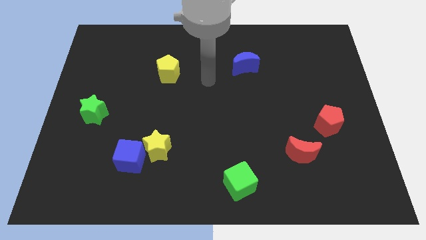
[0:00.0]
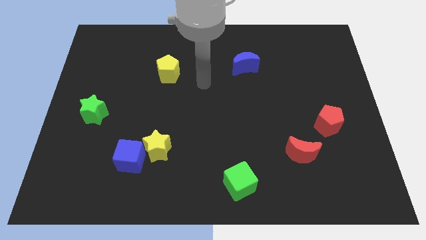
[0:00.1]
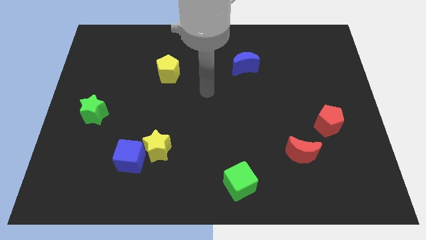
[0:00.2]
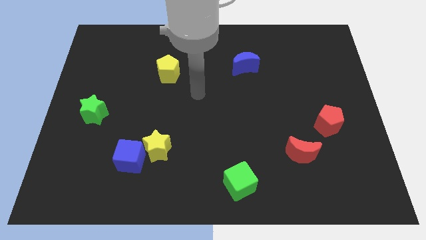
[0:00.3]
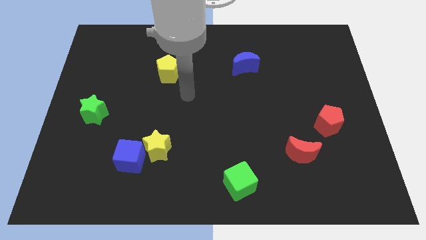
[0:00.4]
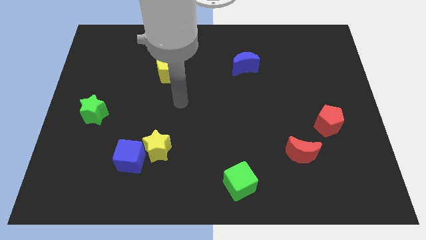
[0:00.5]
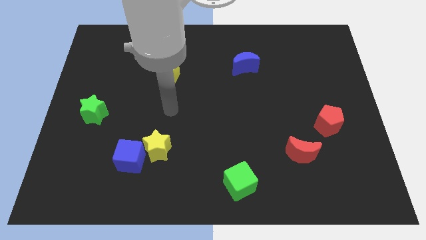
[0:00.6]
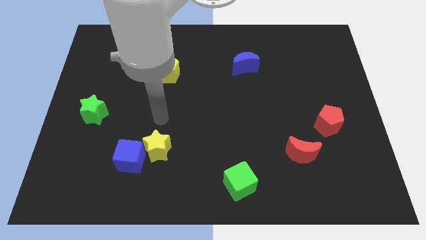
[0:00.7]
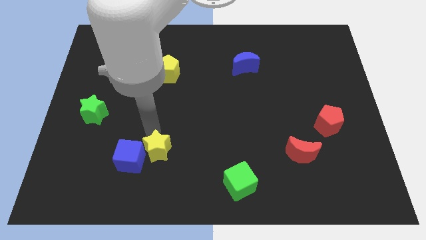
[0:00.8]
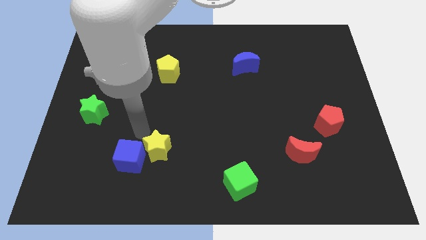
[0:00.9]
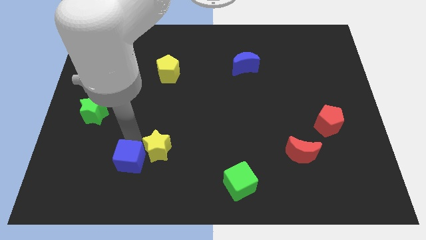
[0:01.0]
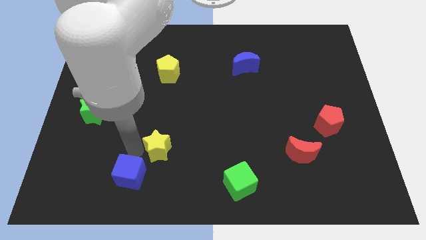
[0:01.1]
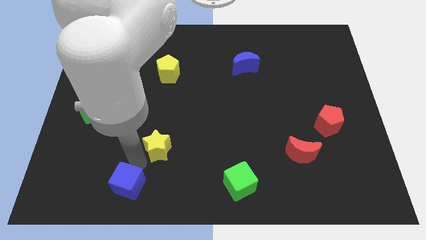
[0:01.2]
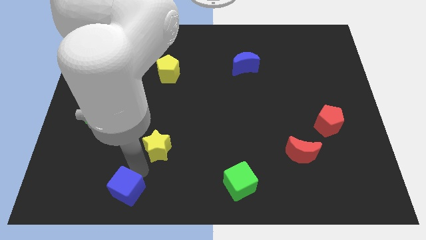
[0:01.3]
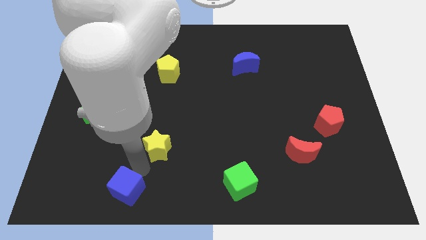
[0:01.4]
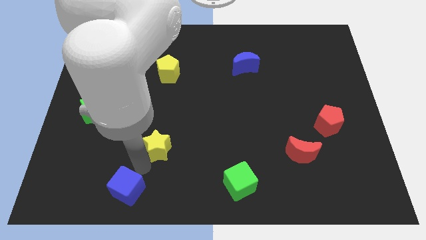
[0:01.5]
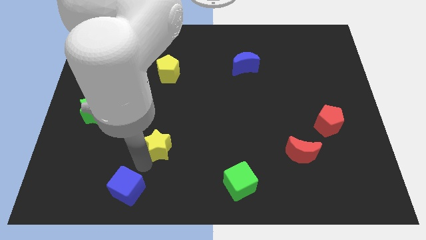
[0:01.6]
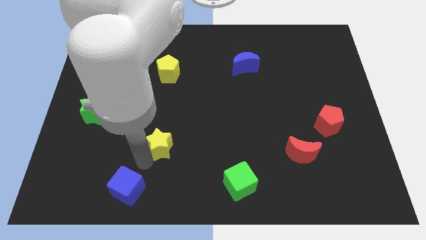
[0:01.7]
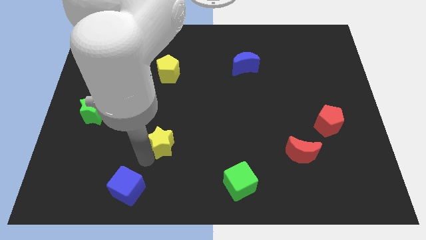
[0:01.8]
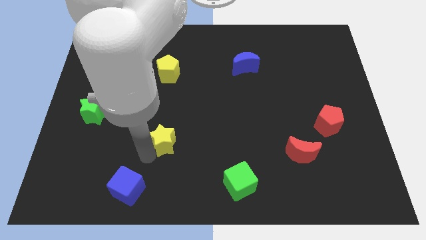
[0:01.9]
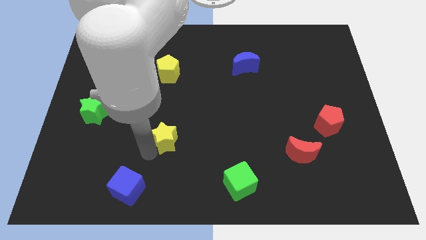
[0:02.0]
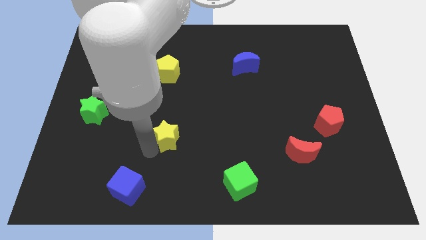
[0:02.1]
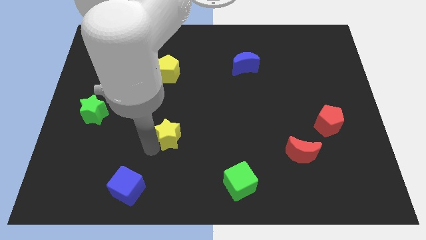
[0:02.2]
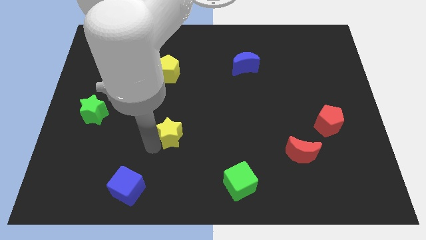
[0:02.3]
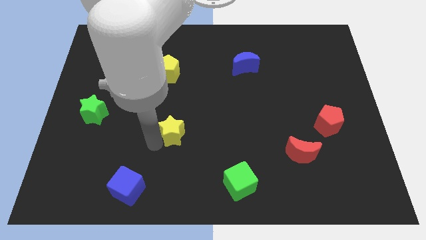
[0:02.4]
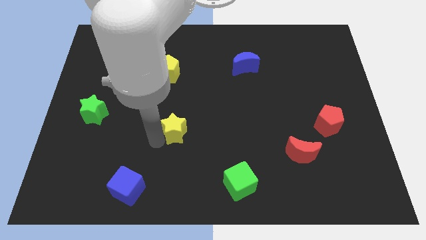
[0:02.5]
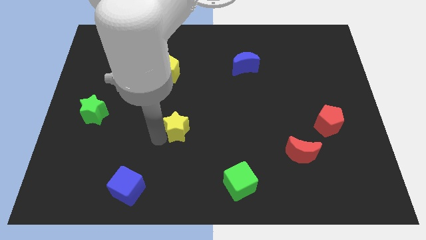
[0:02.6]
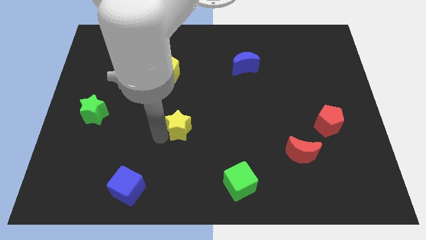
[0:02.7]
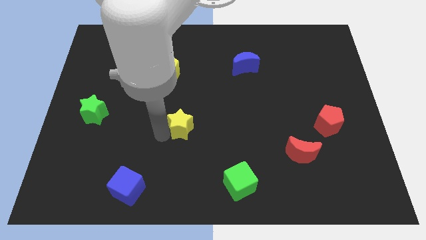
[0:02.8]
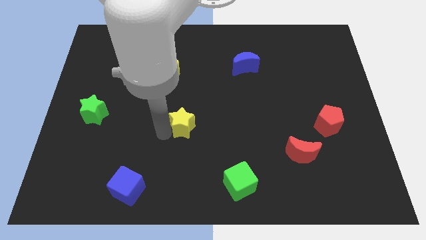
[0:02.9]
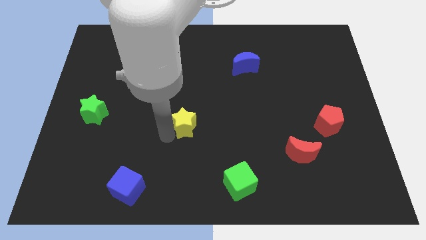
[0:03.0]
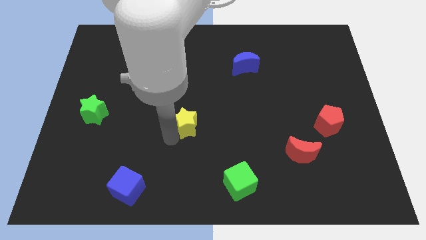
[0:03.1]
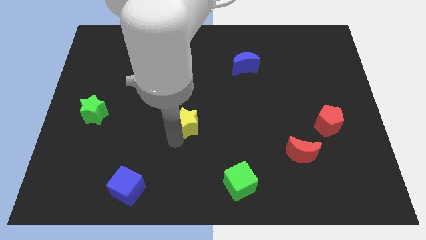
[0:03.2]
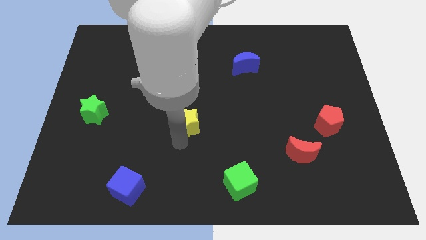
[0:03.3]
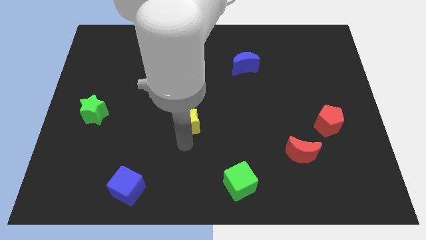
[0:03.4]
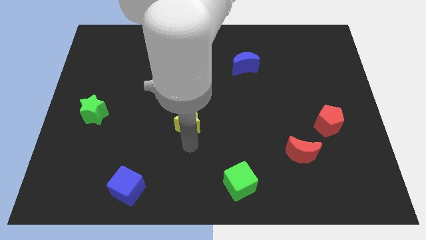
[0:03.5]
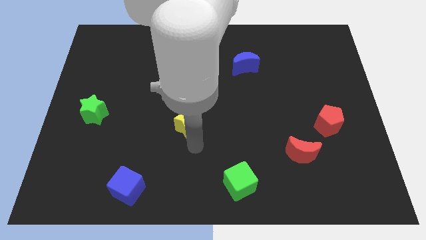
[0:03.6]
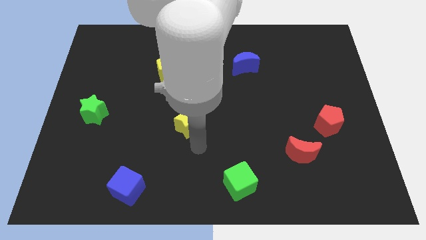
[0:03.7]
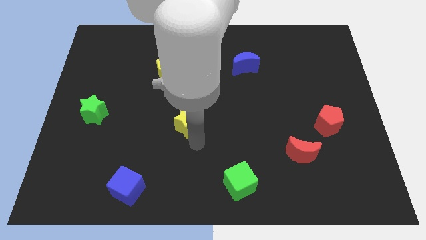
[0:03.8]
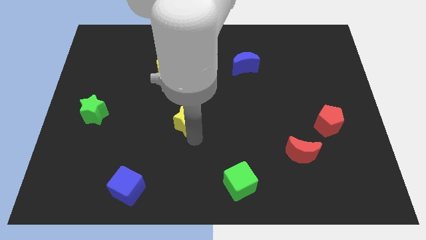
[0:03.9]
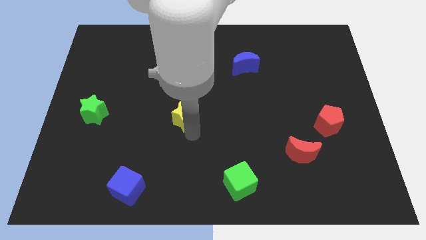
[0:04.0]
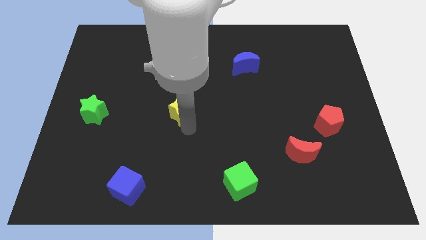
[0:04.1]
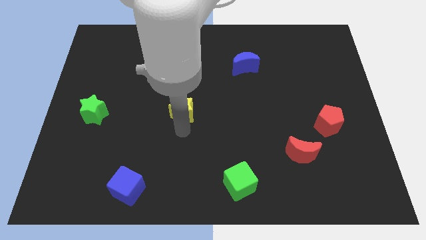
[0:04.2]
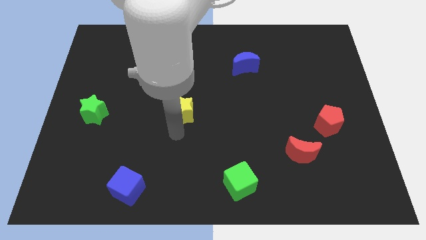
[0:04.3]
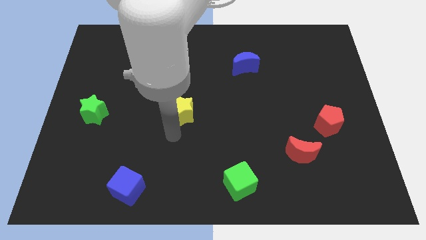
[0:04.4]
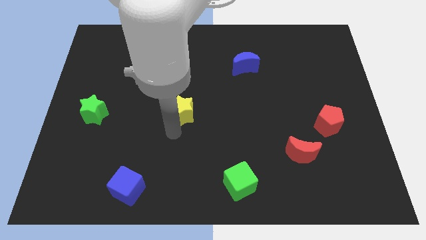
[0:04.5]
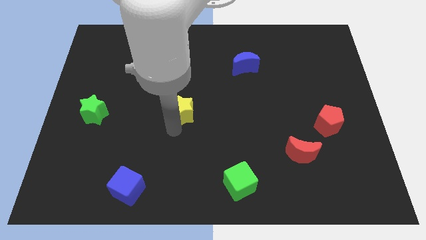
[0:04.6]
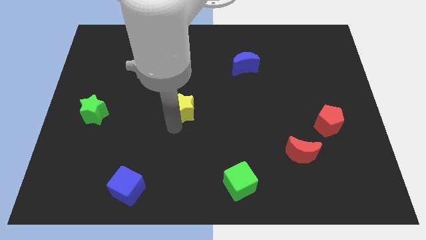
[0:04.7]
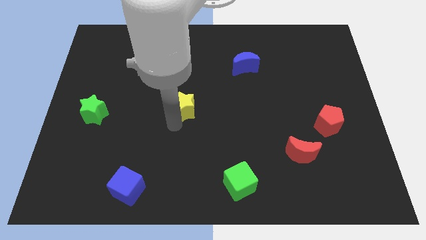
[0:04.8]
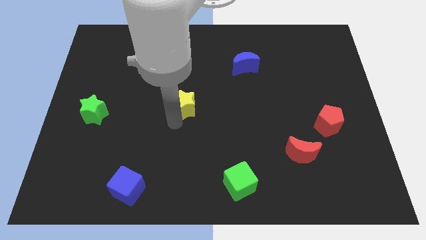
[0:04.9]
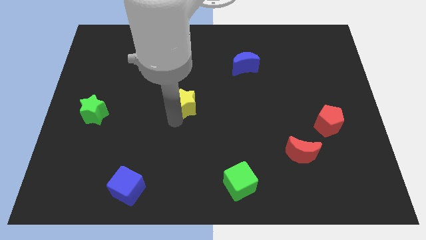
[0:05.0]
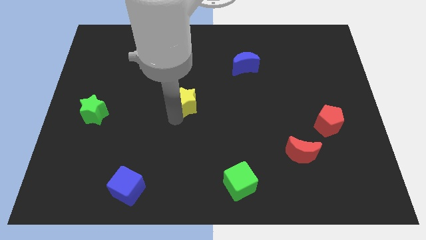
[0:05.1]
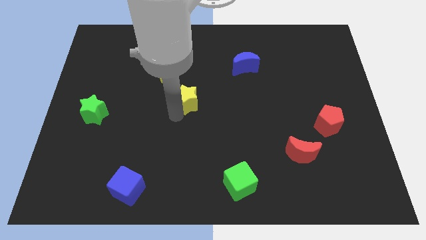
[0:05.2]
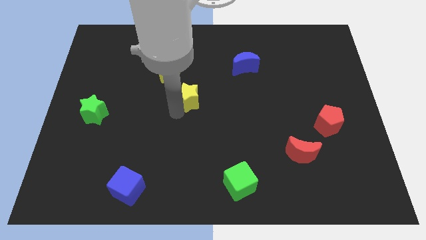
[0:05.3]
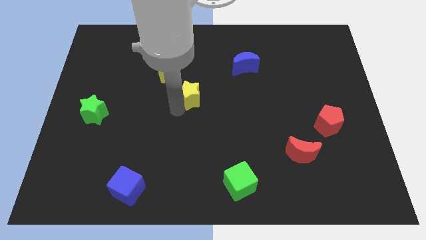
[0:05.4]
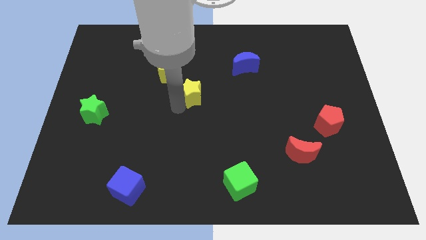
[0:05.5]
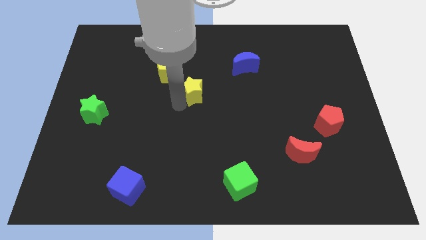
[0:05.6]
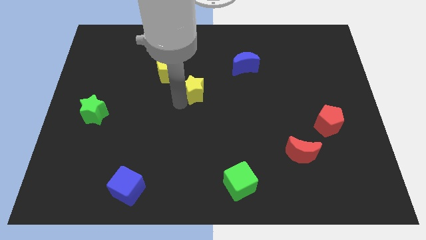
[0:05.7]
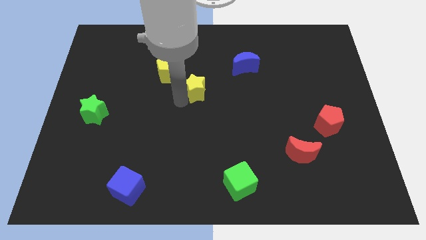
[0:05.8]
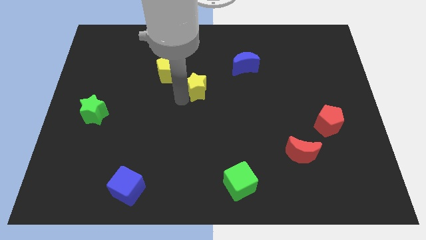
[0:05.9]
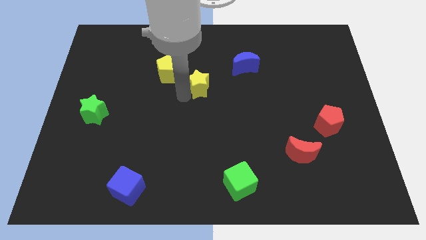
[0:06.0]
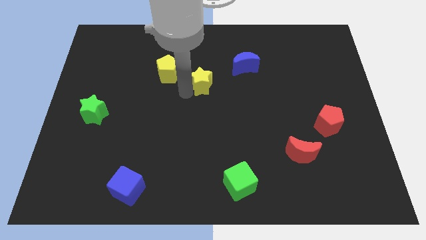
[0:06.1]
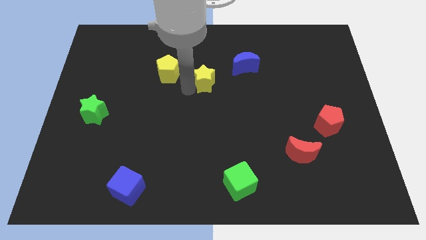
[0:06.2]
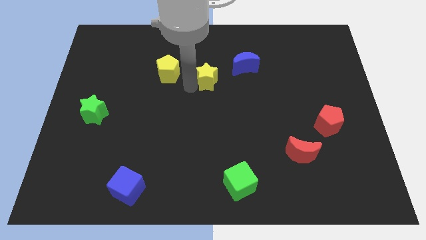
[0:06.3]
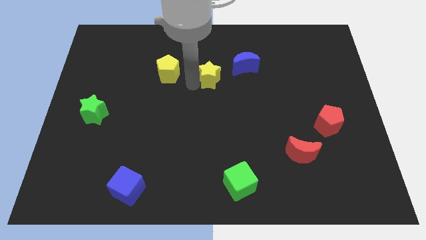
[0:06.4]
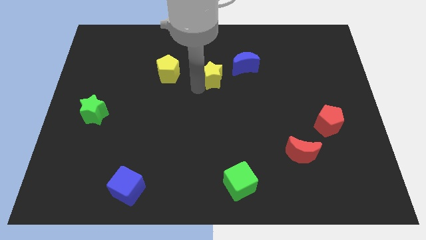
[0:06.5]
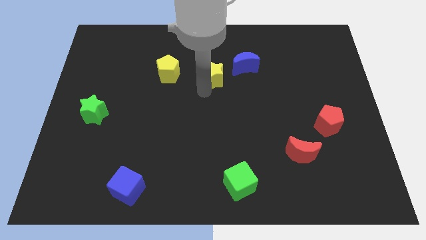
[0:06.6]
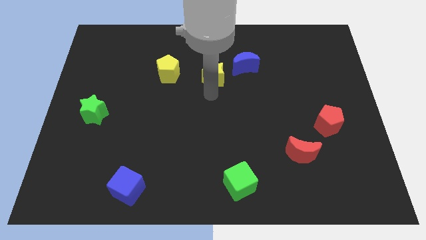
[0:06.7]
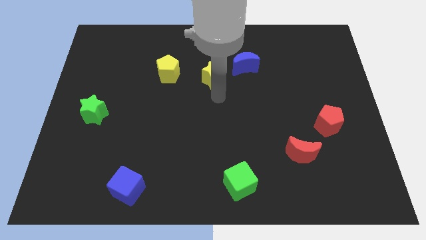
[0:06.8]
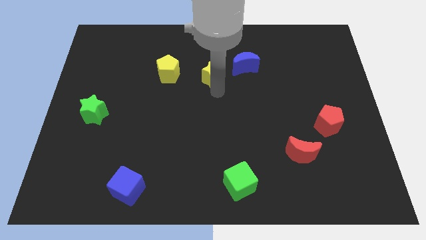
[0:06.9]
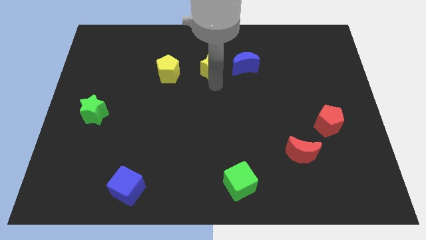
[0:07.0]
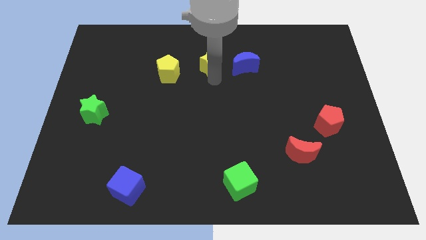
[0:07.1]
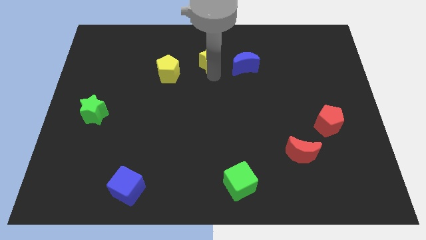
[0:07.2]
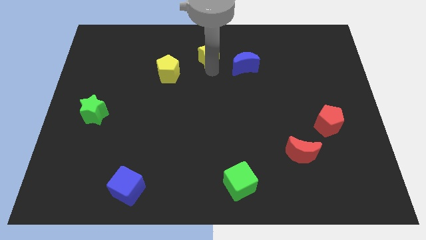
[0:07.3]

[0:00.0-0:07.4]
put the yellow star to the top side
